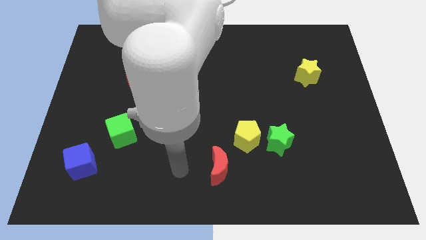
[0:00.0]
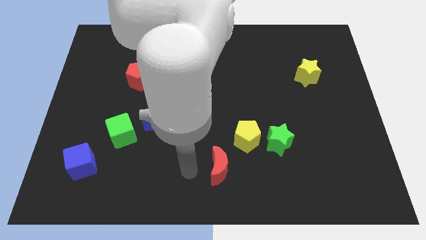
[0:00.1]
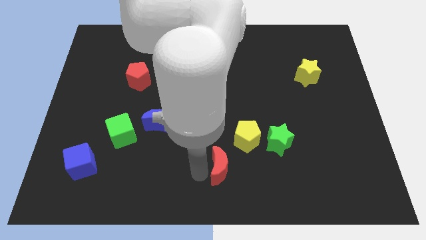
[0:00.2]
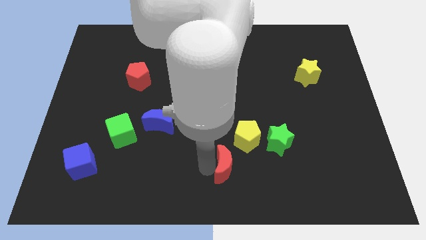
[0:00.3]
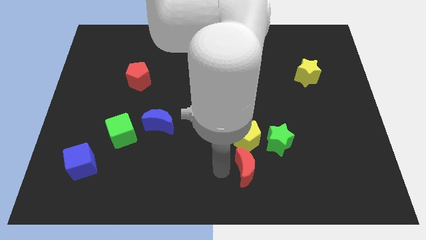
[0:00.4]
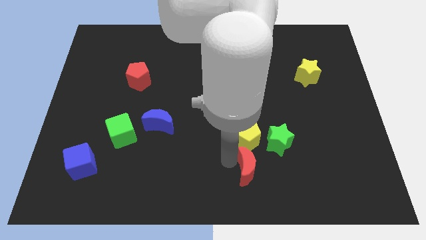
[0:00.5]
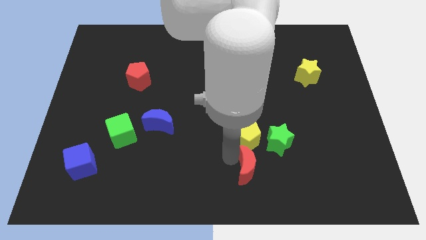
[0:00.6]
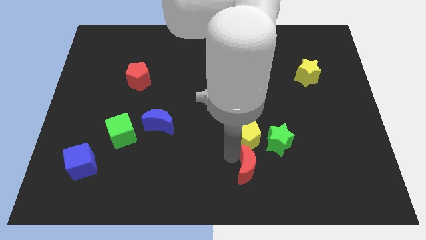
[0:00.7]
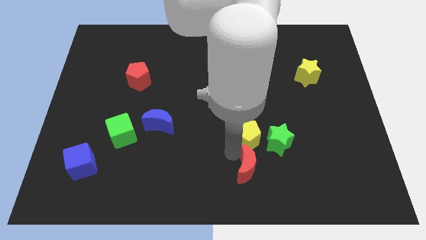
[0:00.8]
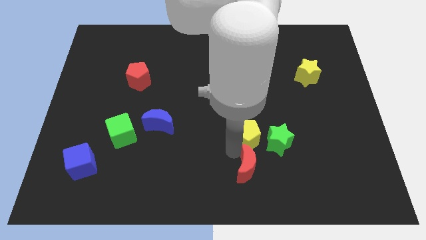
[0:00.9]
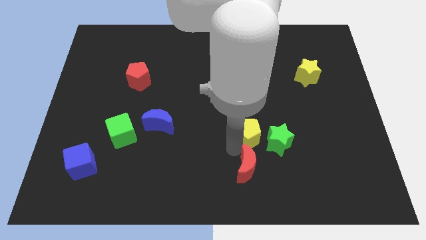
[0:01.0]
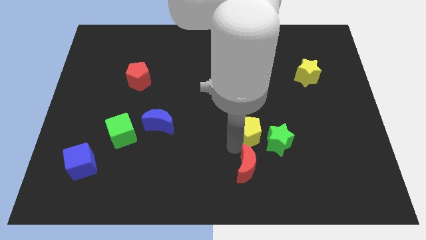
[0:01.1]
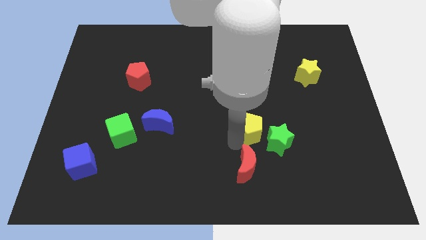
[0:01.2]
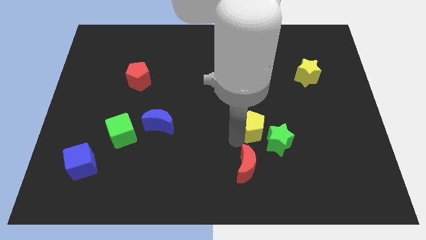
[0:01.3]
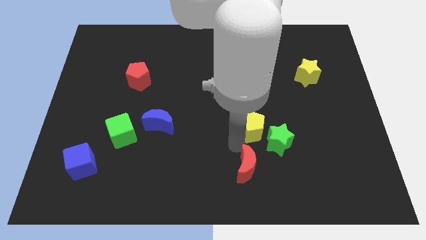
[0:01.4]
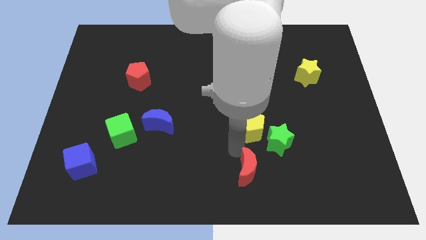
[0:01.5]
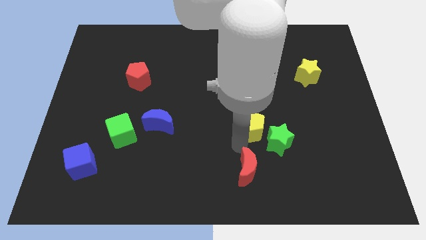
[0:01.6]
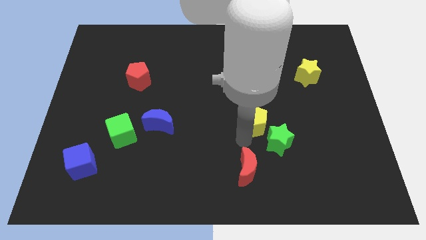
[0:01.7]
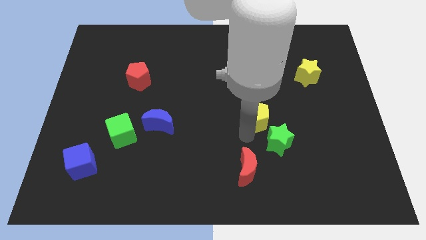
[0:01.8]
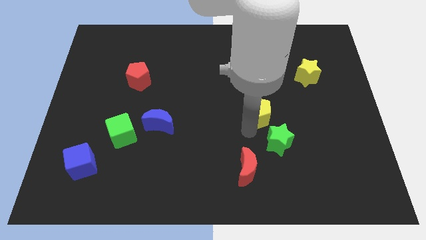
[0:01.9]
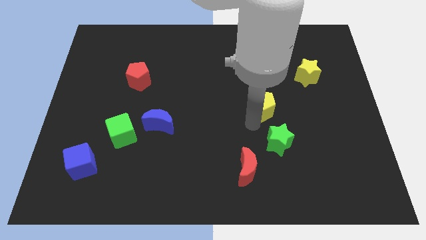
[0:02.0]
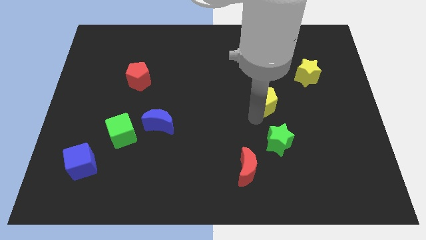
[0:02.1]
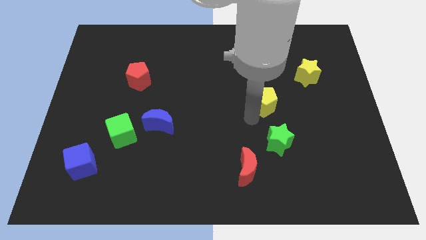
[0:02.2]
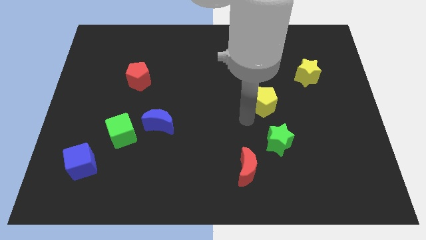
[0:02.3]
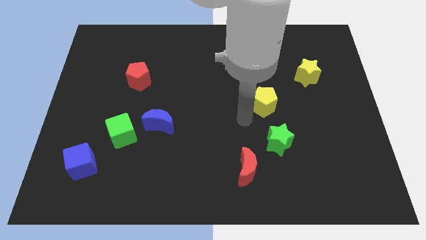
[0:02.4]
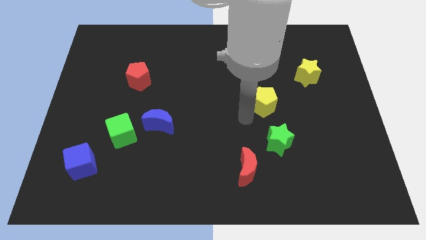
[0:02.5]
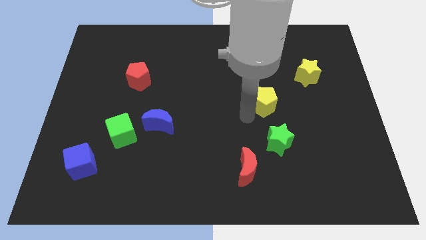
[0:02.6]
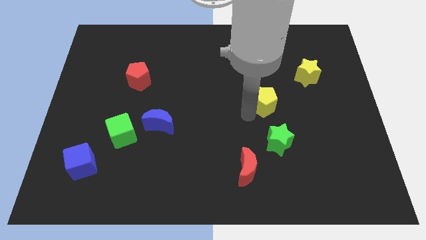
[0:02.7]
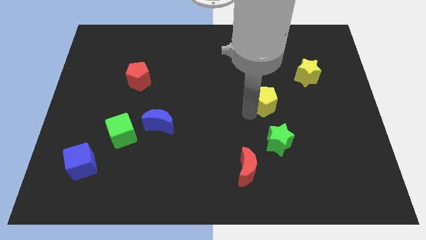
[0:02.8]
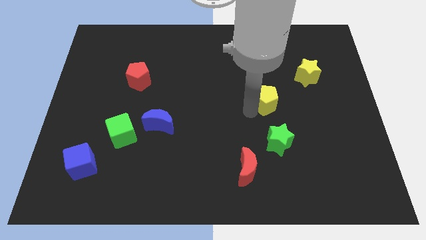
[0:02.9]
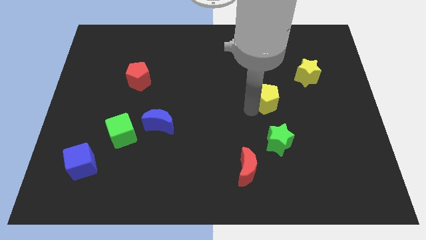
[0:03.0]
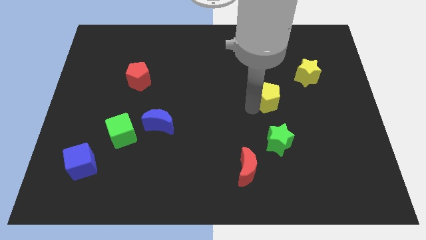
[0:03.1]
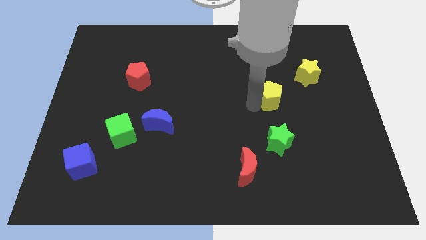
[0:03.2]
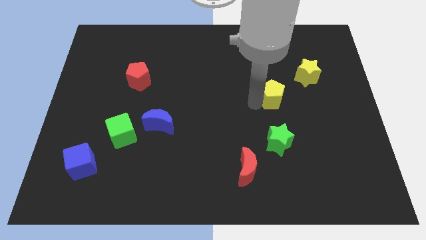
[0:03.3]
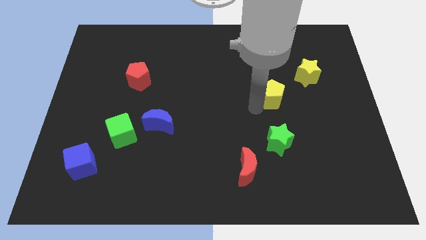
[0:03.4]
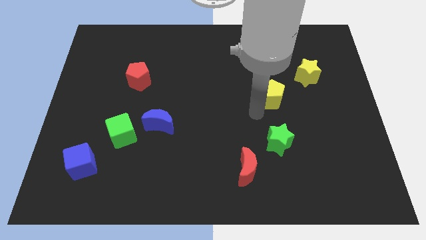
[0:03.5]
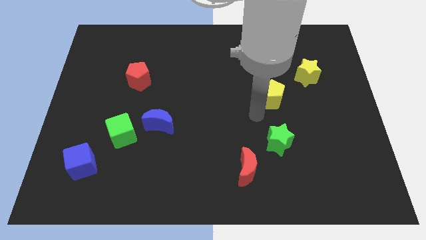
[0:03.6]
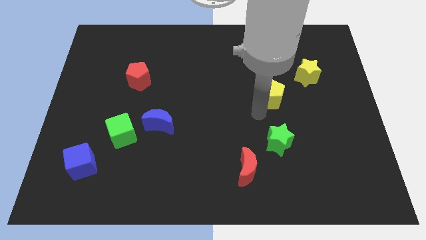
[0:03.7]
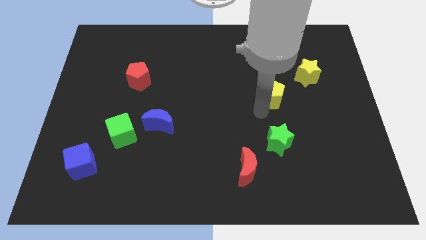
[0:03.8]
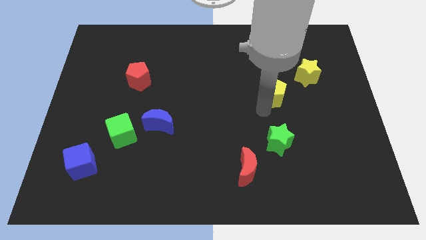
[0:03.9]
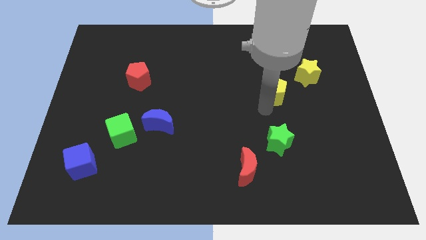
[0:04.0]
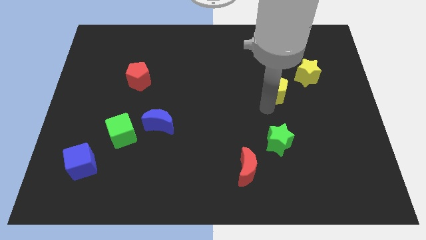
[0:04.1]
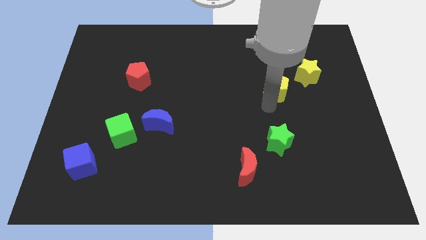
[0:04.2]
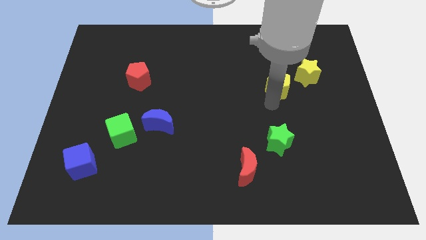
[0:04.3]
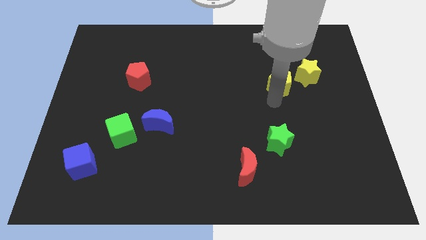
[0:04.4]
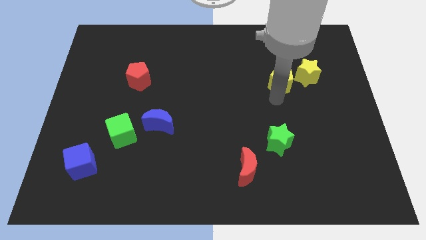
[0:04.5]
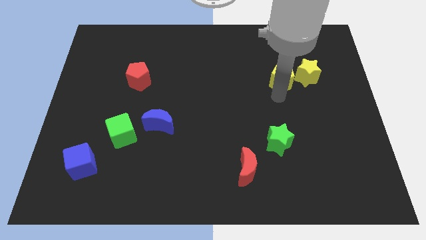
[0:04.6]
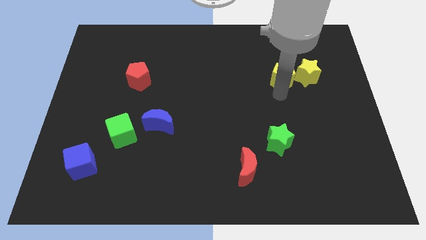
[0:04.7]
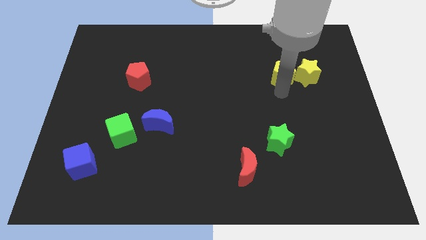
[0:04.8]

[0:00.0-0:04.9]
move the yellow pentagon diagonally up and to the left of the yellow star

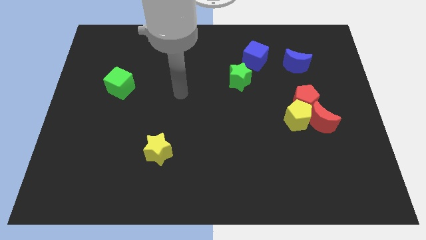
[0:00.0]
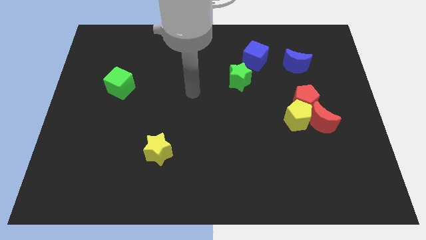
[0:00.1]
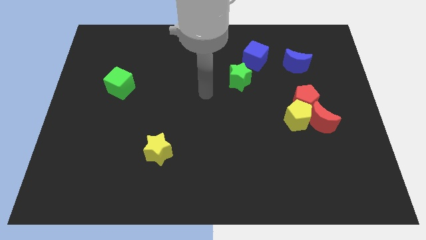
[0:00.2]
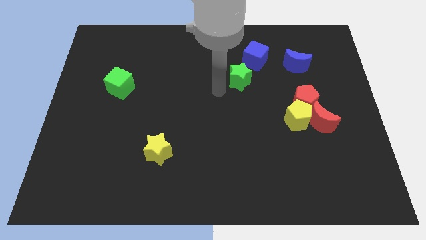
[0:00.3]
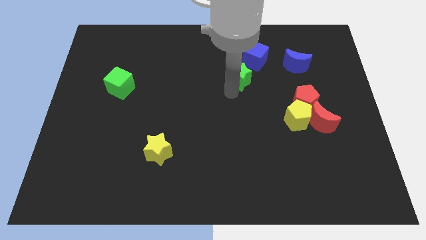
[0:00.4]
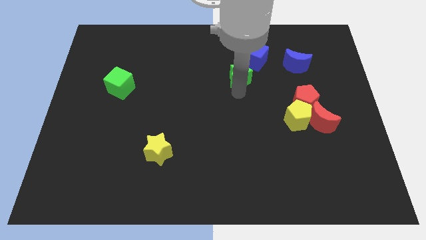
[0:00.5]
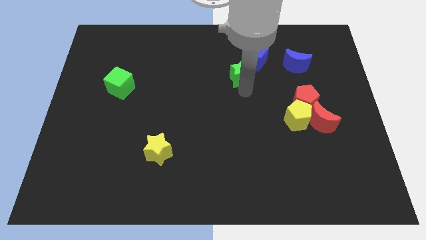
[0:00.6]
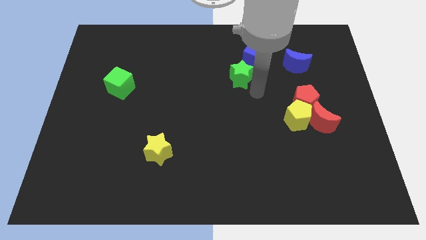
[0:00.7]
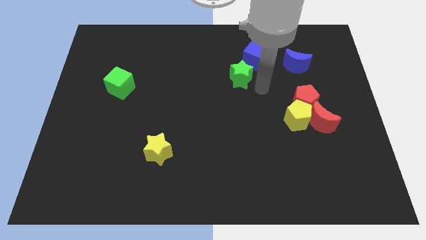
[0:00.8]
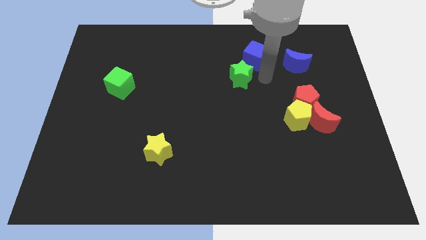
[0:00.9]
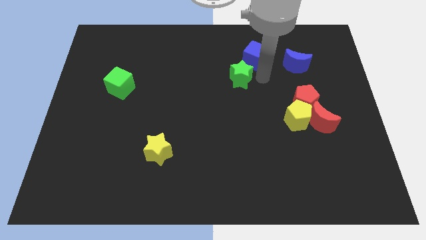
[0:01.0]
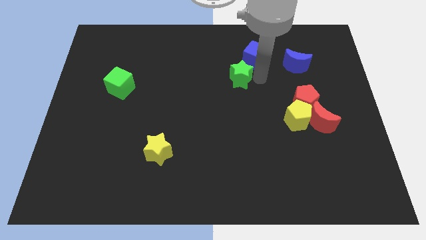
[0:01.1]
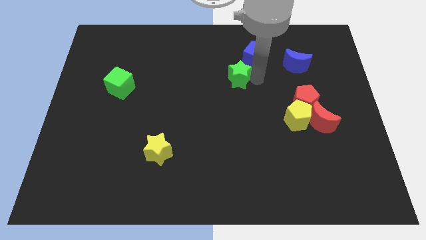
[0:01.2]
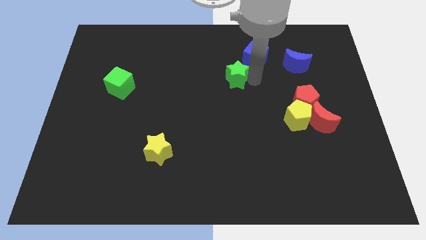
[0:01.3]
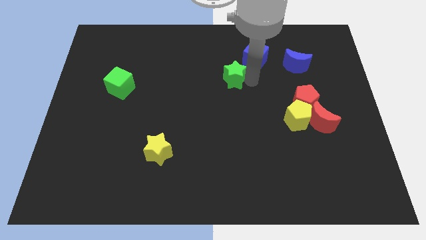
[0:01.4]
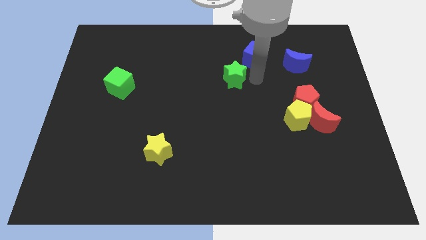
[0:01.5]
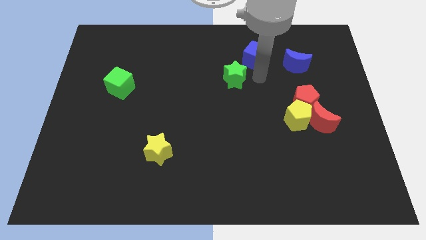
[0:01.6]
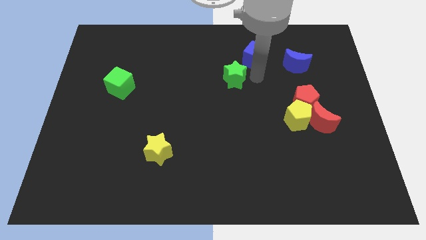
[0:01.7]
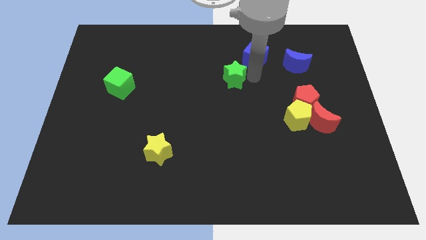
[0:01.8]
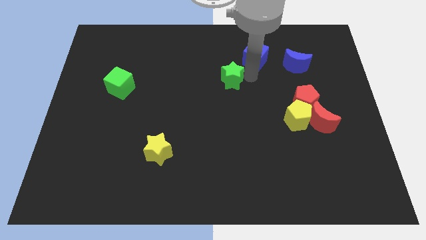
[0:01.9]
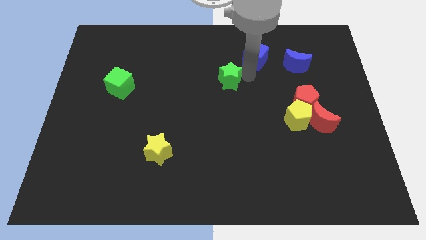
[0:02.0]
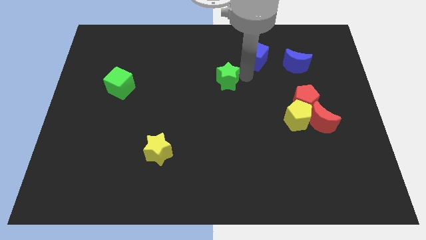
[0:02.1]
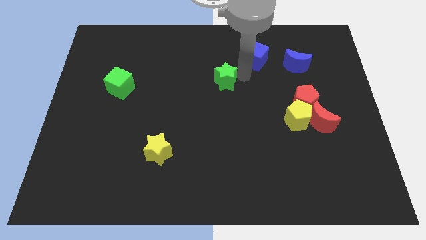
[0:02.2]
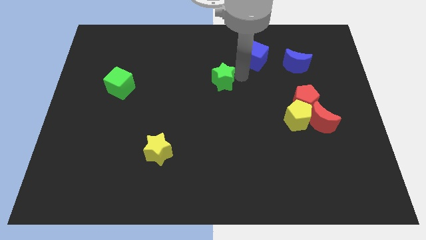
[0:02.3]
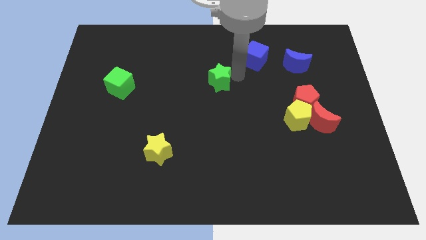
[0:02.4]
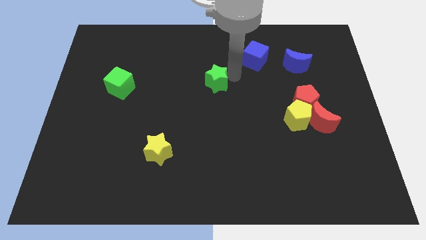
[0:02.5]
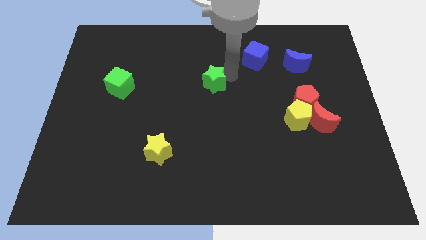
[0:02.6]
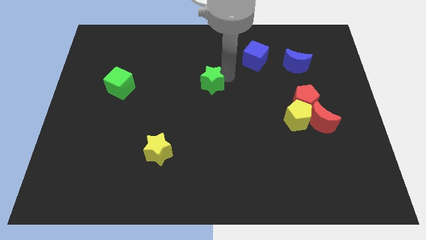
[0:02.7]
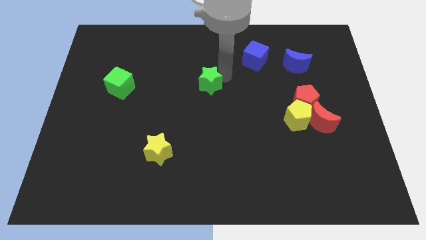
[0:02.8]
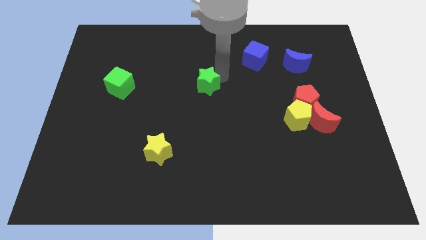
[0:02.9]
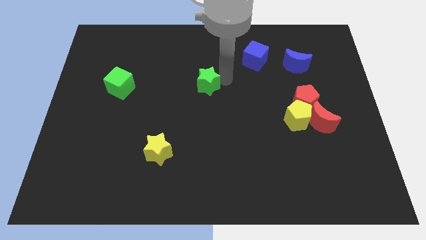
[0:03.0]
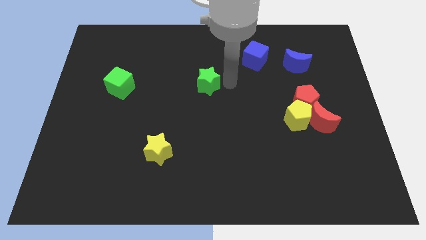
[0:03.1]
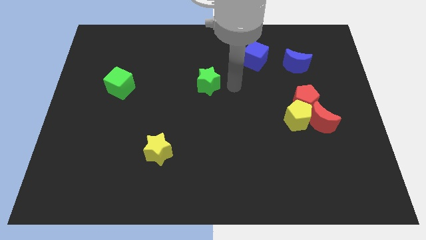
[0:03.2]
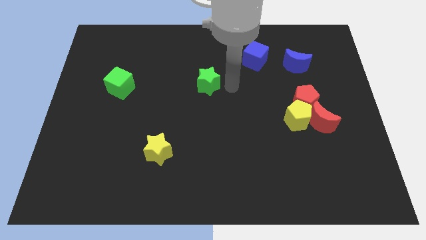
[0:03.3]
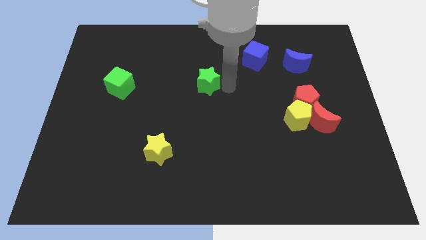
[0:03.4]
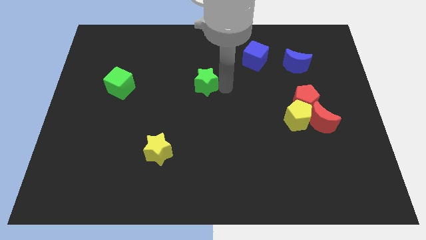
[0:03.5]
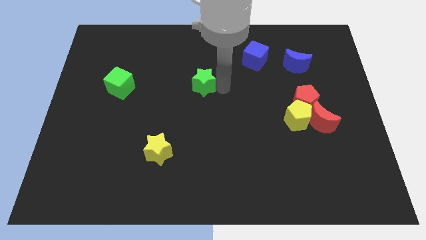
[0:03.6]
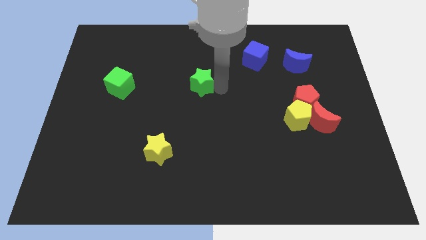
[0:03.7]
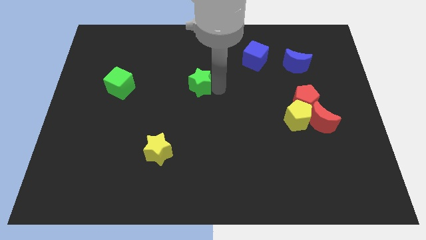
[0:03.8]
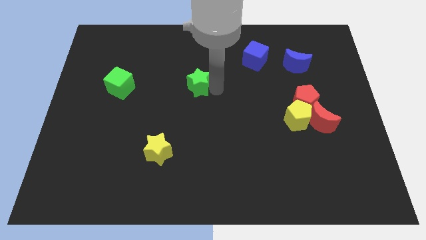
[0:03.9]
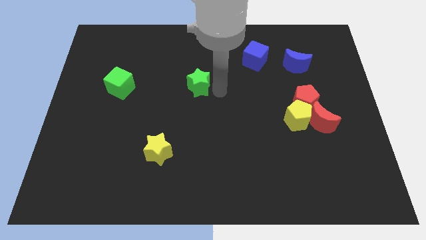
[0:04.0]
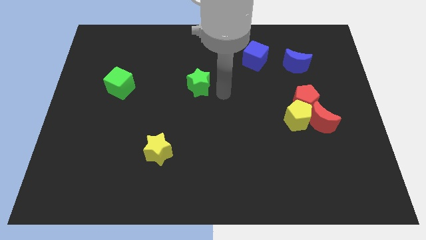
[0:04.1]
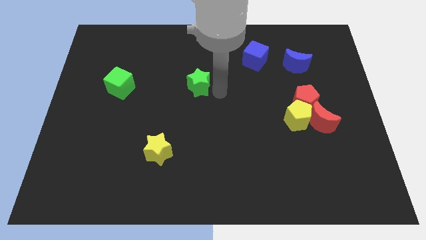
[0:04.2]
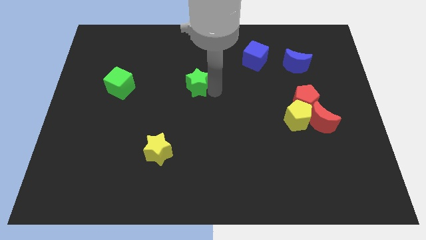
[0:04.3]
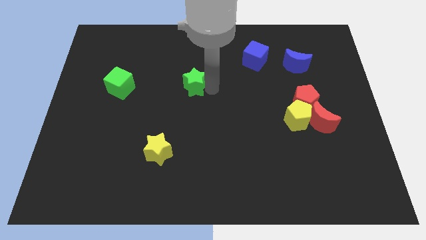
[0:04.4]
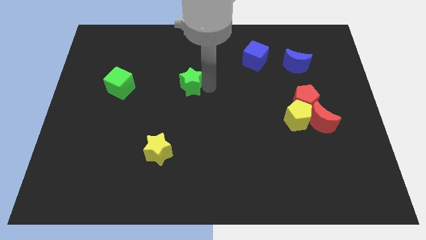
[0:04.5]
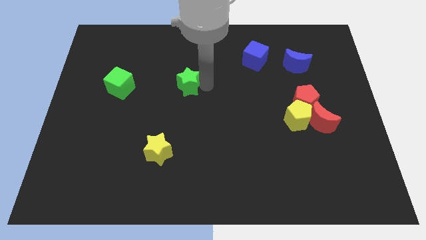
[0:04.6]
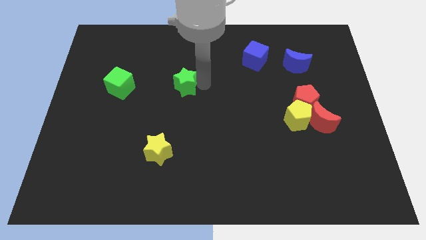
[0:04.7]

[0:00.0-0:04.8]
slide the green star to the right of the green cube
